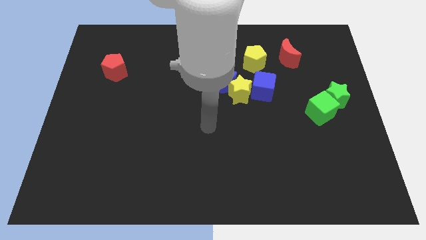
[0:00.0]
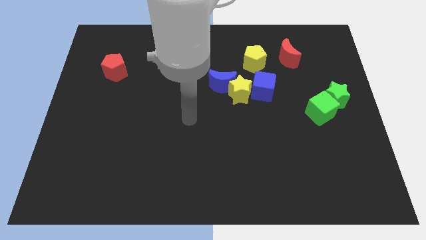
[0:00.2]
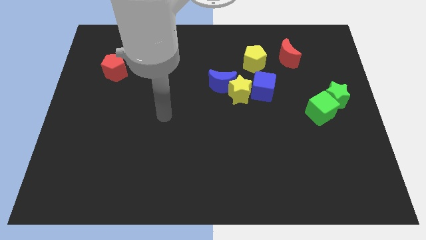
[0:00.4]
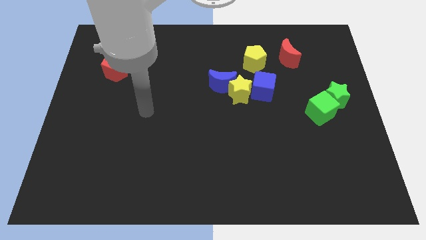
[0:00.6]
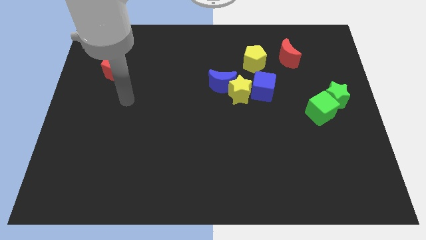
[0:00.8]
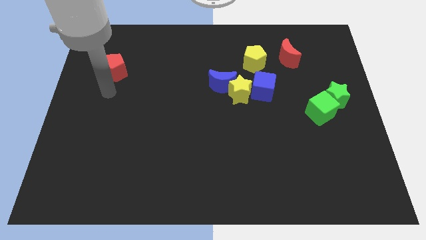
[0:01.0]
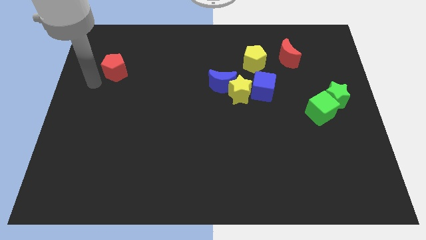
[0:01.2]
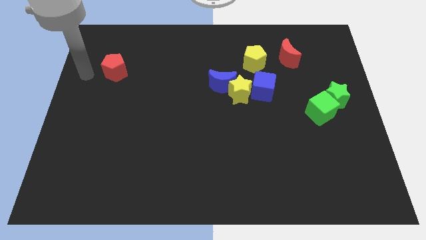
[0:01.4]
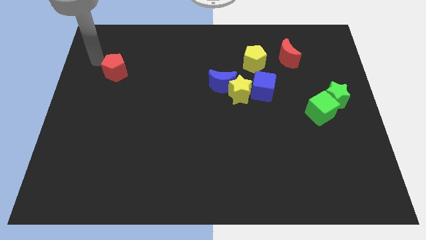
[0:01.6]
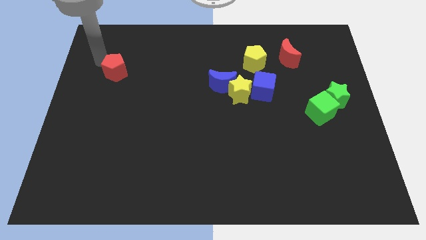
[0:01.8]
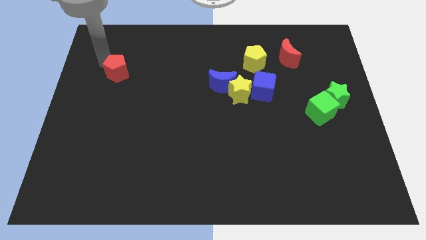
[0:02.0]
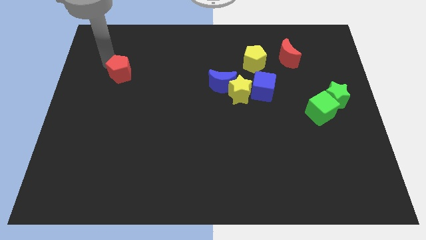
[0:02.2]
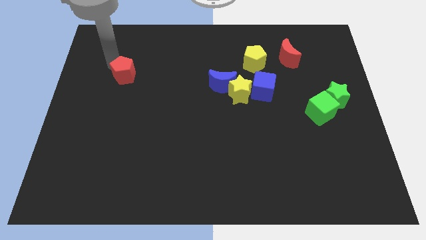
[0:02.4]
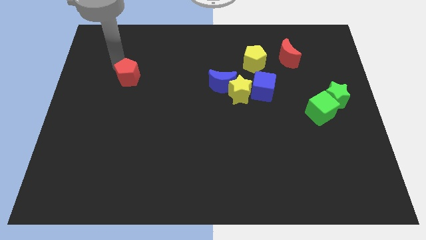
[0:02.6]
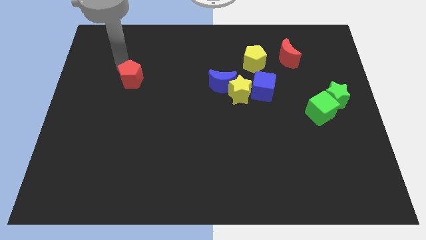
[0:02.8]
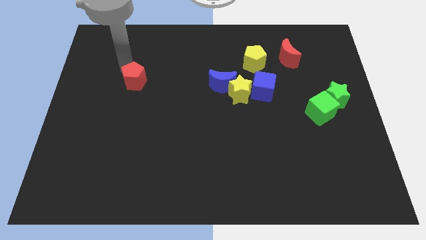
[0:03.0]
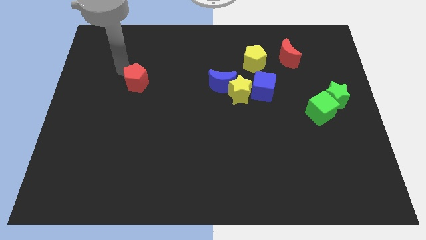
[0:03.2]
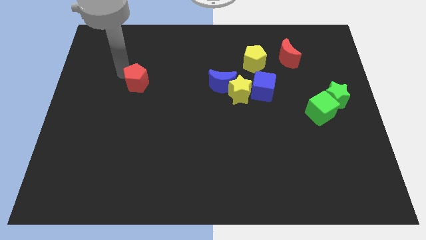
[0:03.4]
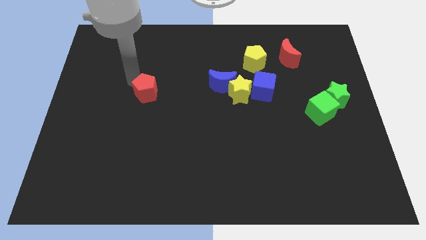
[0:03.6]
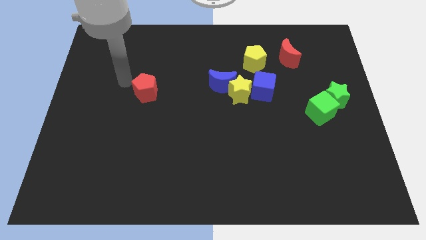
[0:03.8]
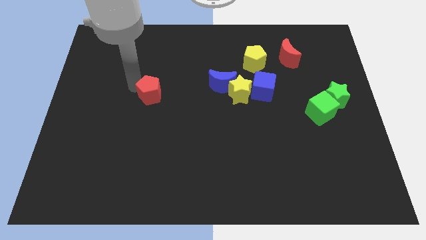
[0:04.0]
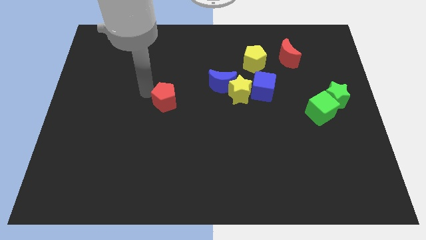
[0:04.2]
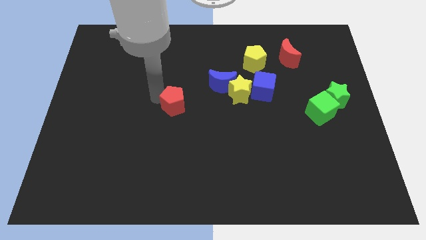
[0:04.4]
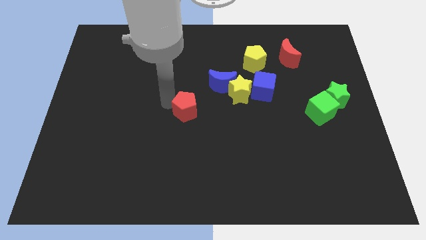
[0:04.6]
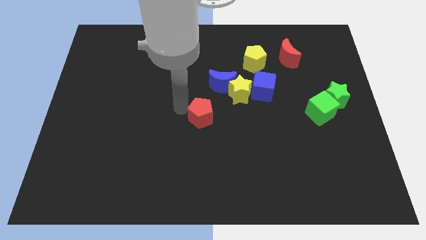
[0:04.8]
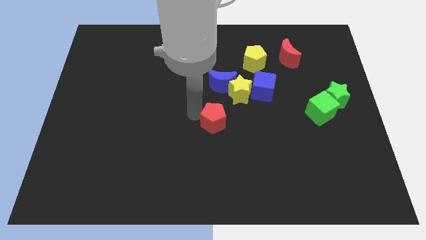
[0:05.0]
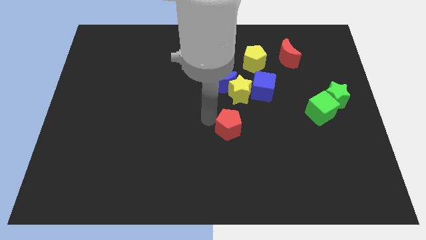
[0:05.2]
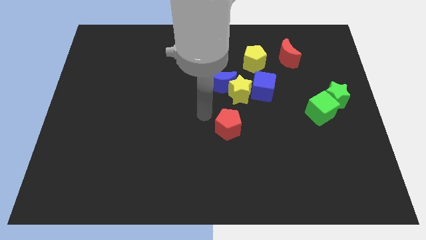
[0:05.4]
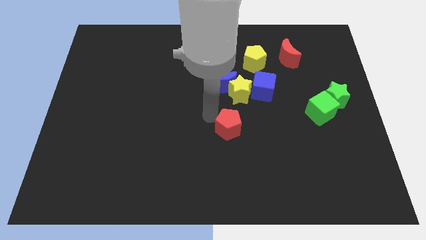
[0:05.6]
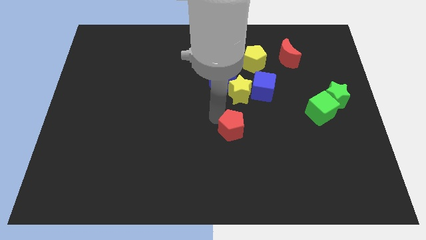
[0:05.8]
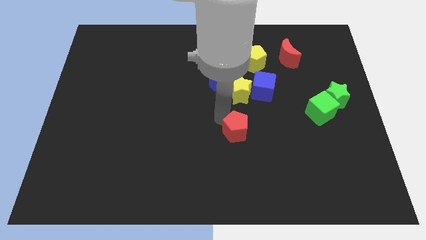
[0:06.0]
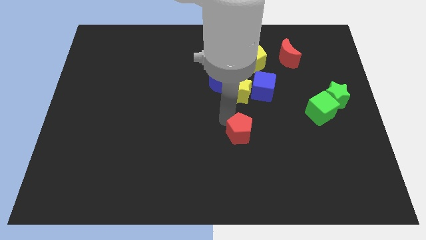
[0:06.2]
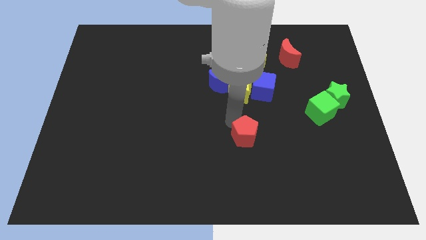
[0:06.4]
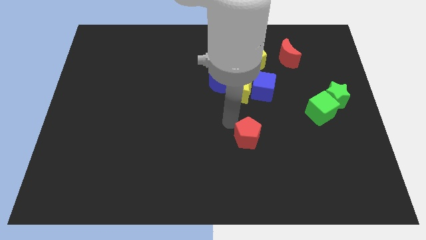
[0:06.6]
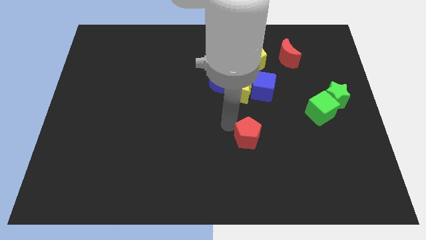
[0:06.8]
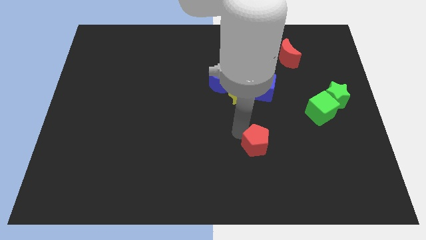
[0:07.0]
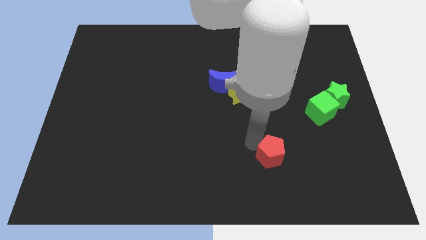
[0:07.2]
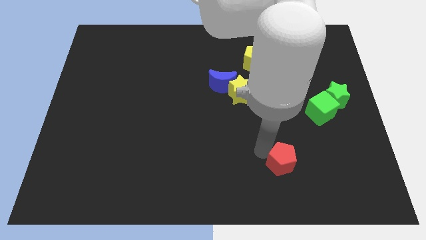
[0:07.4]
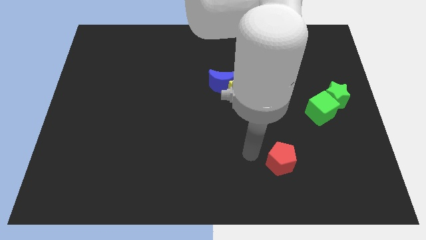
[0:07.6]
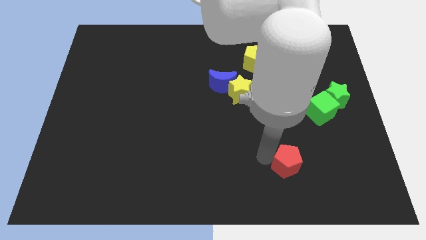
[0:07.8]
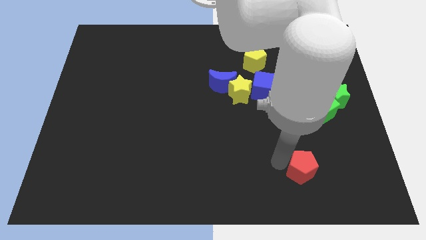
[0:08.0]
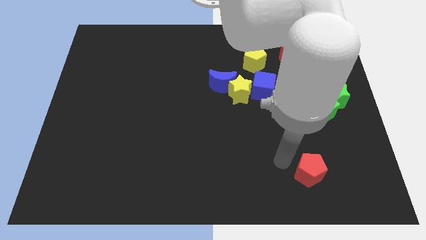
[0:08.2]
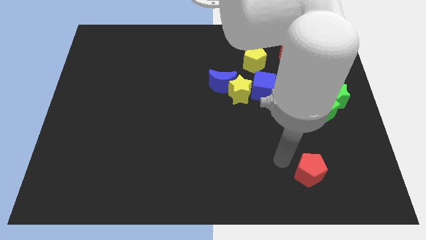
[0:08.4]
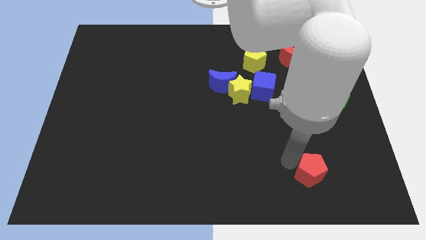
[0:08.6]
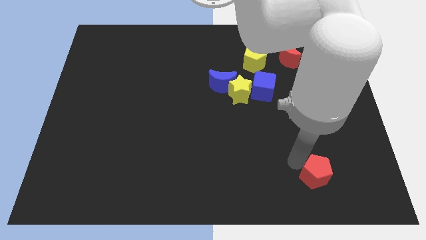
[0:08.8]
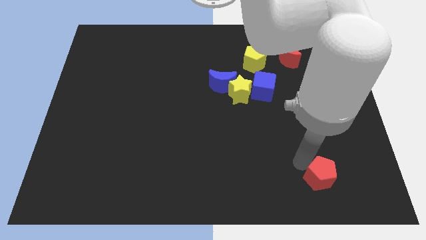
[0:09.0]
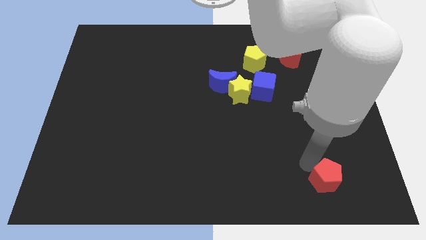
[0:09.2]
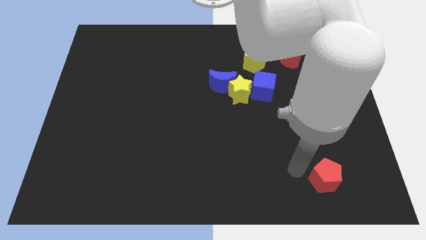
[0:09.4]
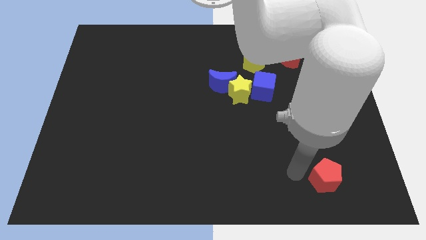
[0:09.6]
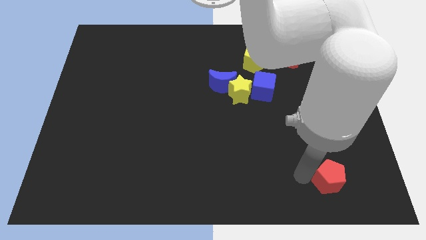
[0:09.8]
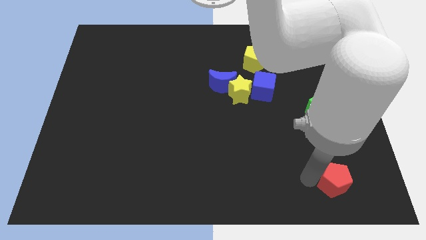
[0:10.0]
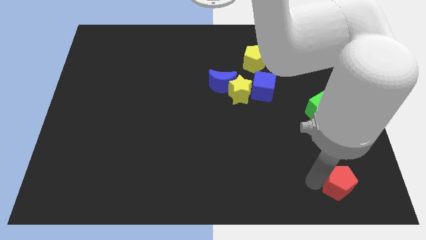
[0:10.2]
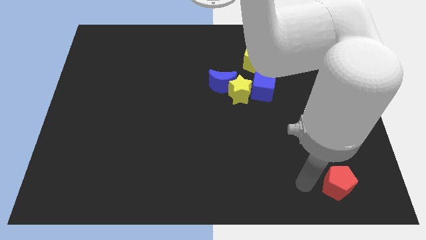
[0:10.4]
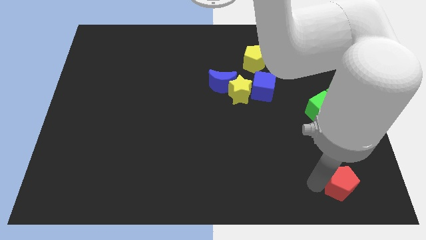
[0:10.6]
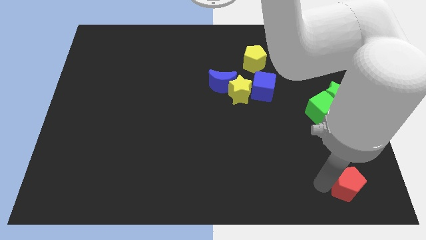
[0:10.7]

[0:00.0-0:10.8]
slide the red pentagon to the lower right corner
